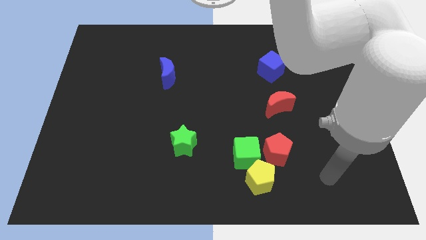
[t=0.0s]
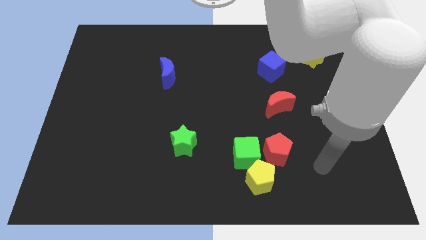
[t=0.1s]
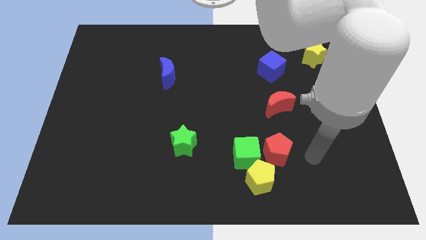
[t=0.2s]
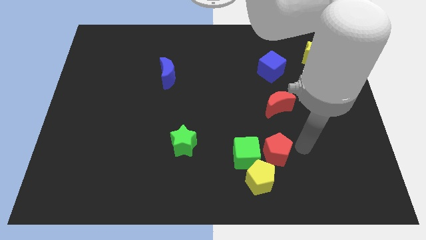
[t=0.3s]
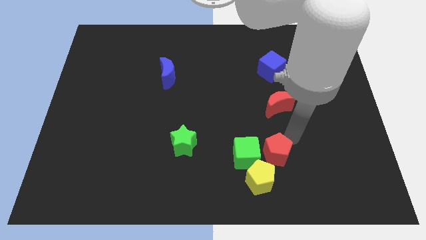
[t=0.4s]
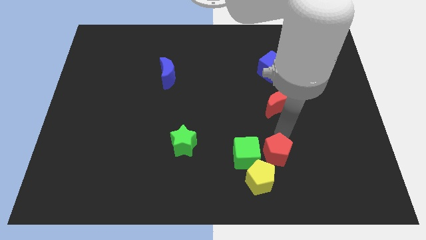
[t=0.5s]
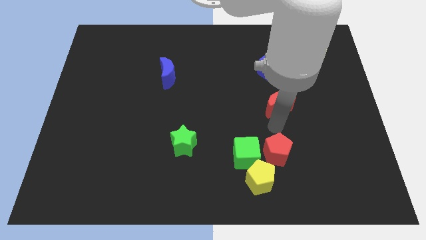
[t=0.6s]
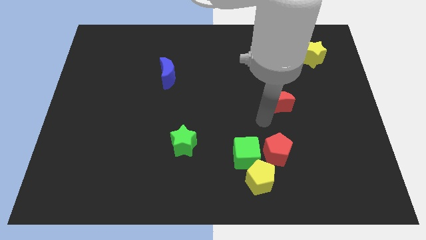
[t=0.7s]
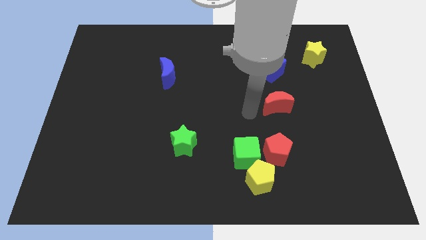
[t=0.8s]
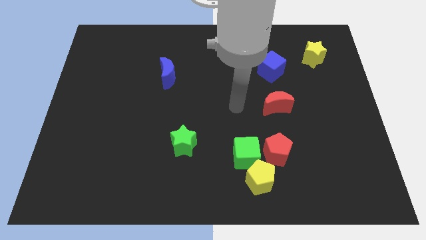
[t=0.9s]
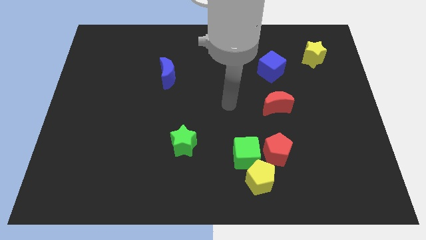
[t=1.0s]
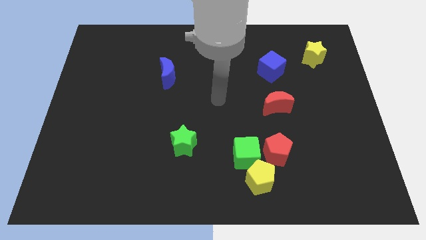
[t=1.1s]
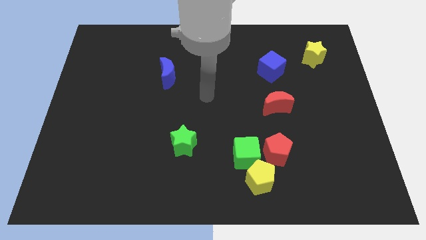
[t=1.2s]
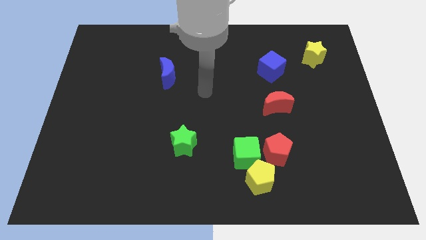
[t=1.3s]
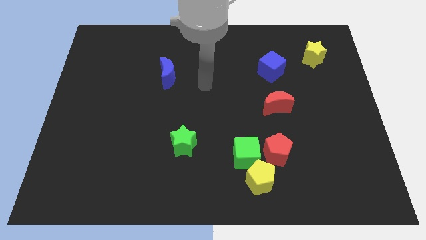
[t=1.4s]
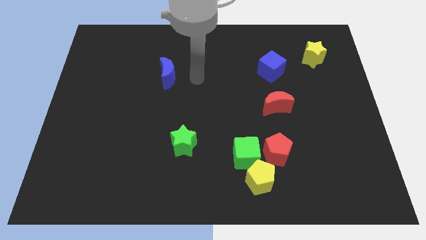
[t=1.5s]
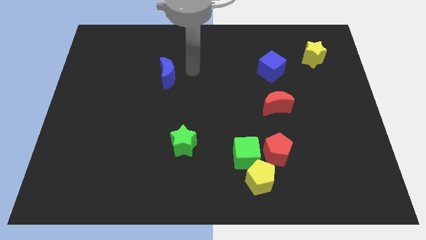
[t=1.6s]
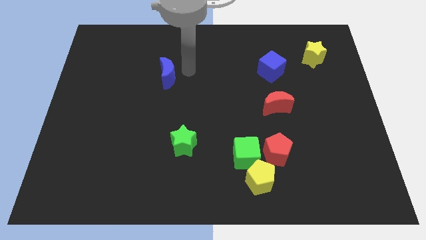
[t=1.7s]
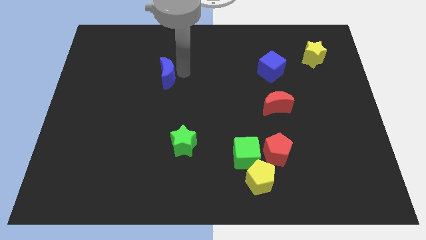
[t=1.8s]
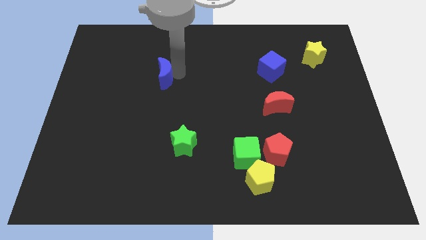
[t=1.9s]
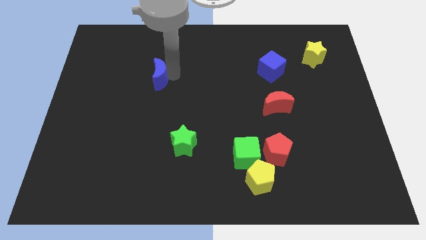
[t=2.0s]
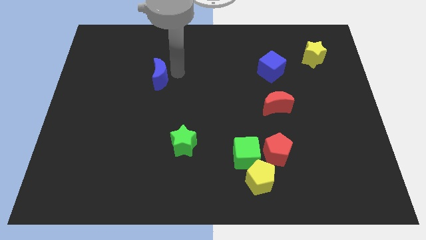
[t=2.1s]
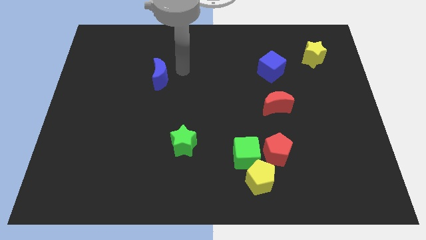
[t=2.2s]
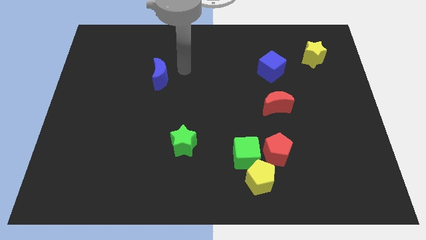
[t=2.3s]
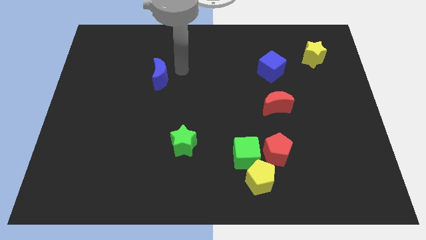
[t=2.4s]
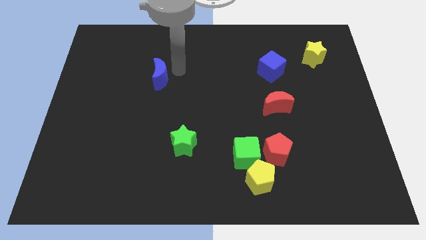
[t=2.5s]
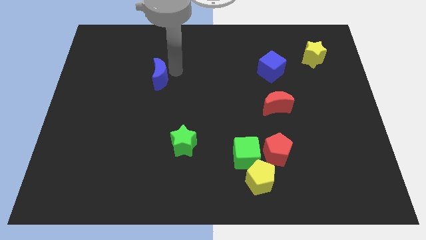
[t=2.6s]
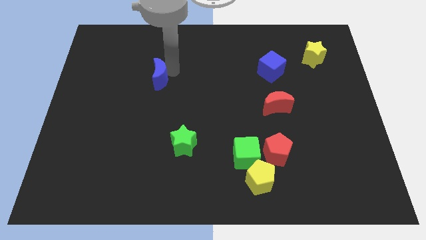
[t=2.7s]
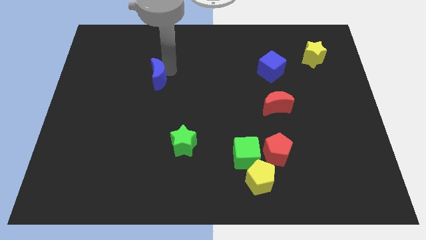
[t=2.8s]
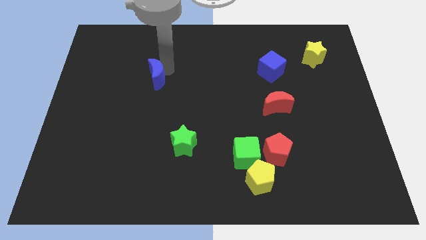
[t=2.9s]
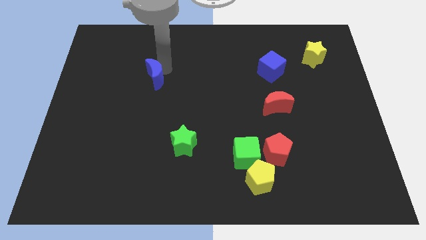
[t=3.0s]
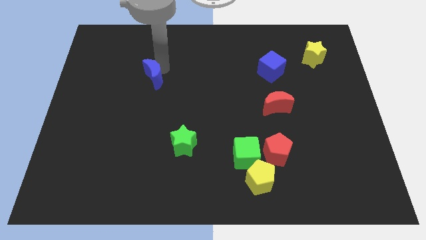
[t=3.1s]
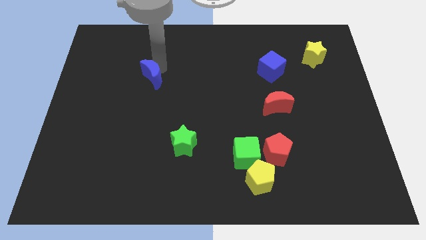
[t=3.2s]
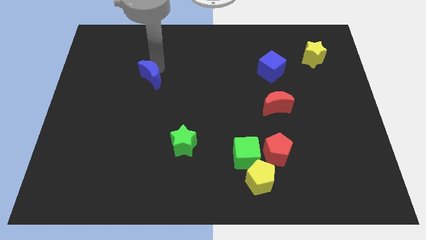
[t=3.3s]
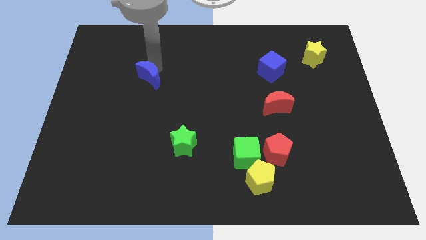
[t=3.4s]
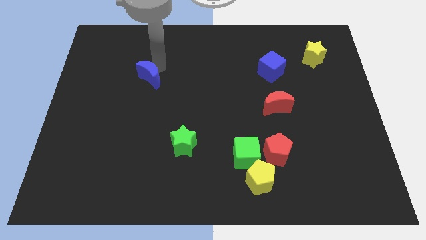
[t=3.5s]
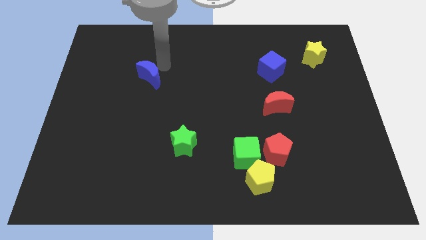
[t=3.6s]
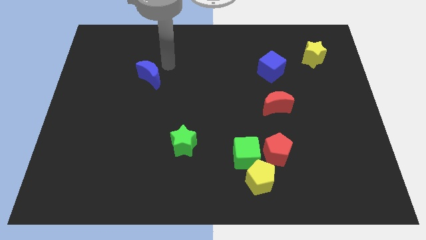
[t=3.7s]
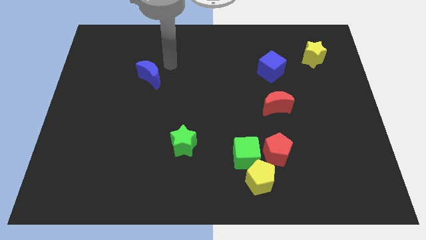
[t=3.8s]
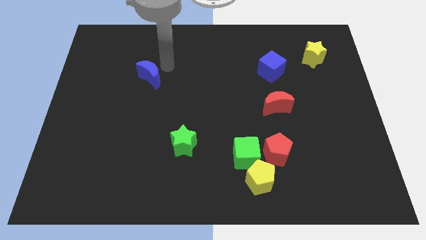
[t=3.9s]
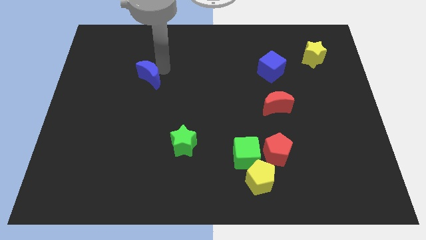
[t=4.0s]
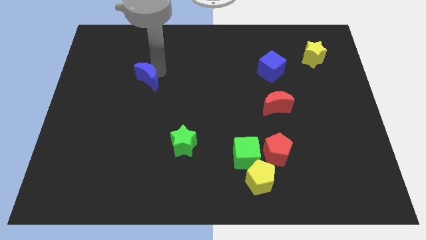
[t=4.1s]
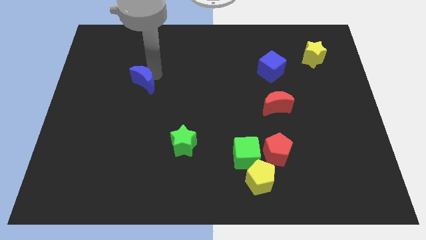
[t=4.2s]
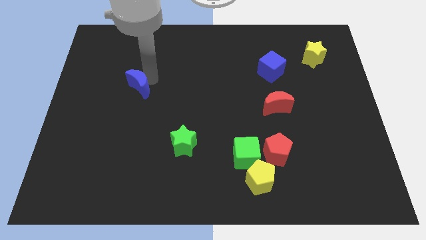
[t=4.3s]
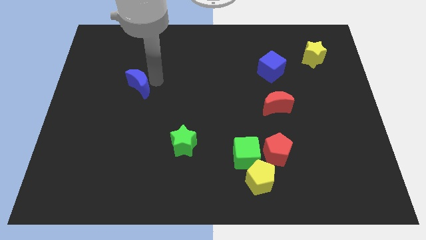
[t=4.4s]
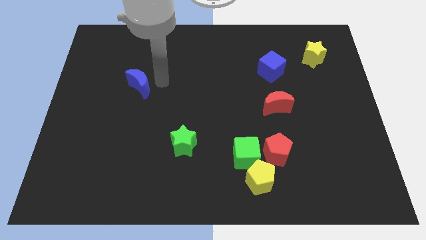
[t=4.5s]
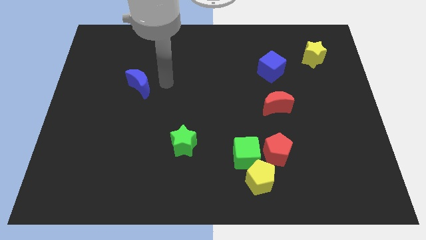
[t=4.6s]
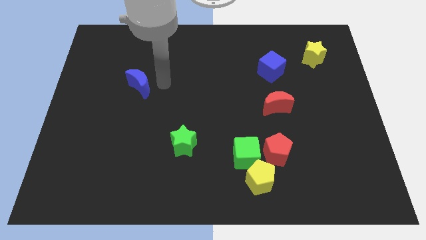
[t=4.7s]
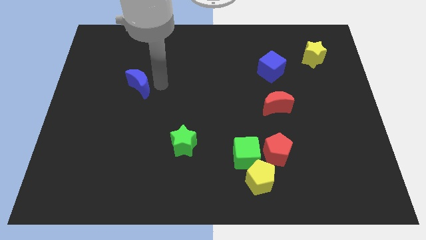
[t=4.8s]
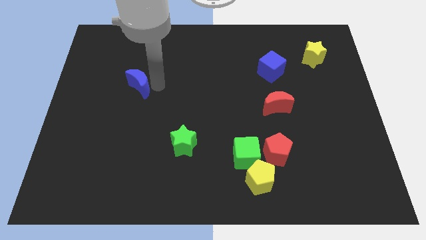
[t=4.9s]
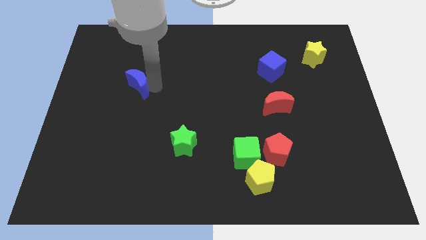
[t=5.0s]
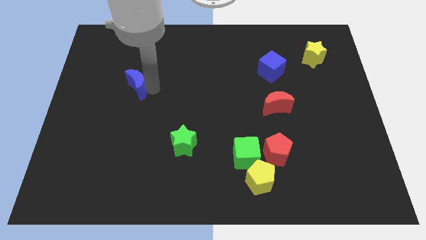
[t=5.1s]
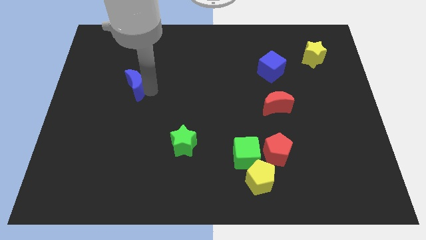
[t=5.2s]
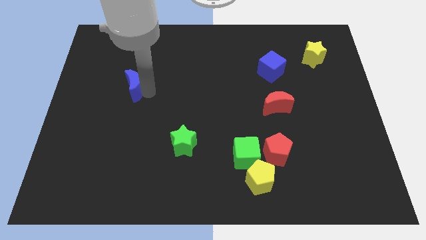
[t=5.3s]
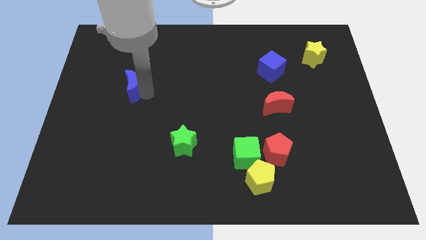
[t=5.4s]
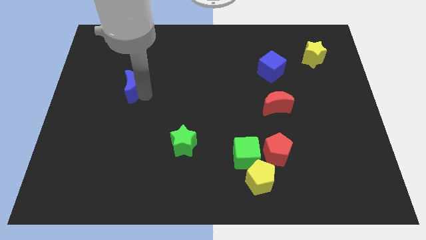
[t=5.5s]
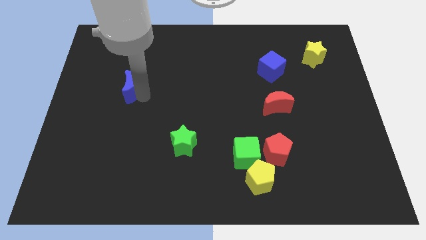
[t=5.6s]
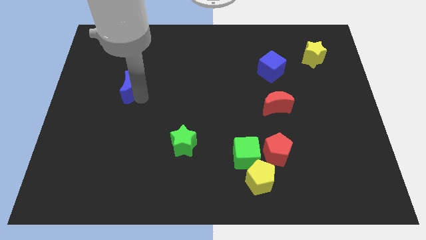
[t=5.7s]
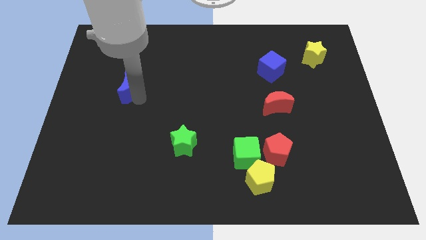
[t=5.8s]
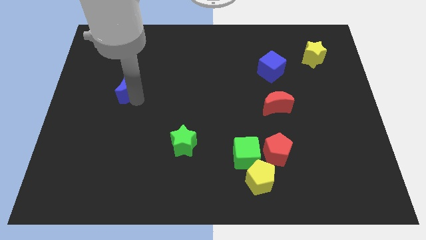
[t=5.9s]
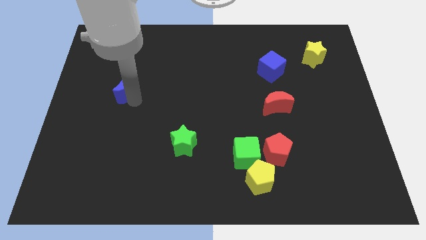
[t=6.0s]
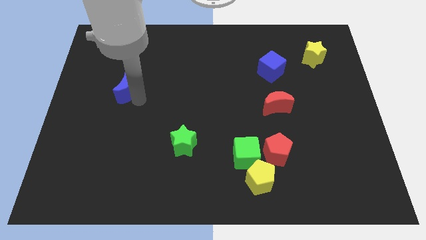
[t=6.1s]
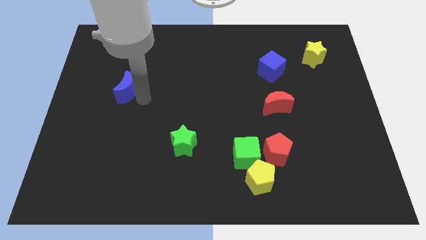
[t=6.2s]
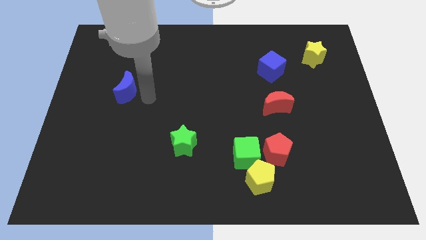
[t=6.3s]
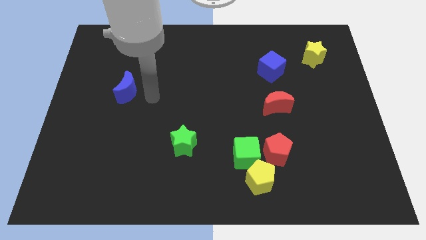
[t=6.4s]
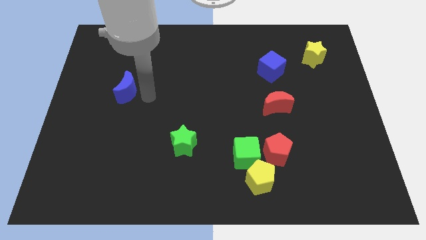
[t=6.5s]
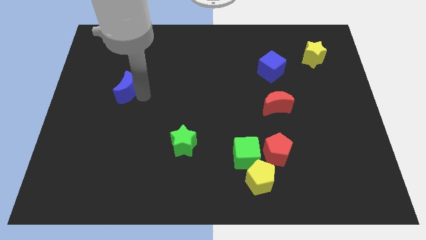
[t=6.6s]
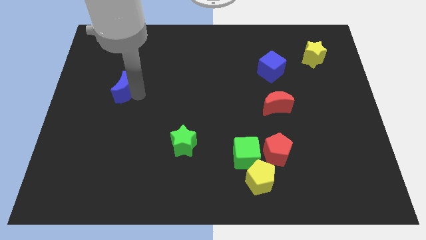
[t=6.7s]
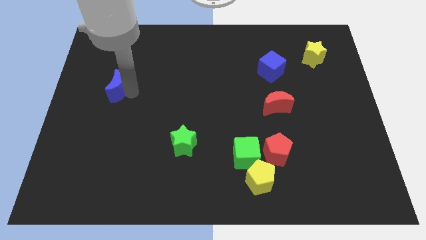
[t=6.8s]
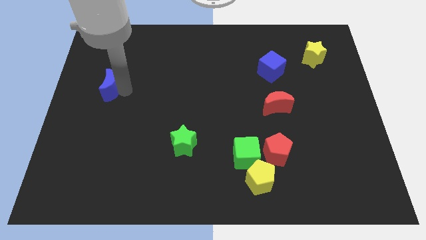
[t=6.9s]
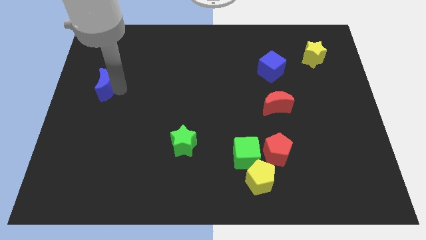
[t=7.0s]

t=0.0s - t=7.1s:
slide the blue moon to the left side
